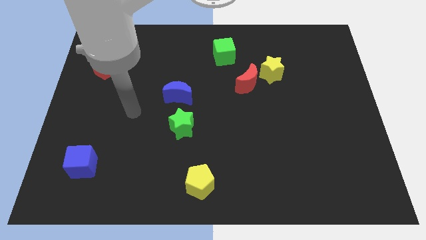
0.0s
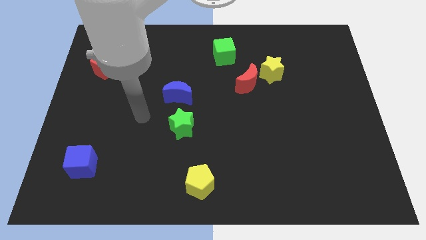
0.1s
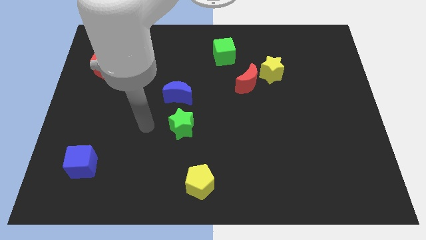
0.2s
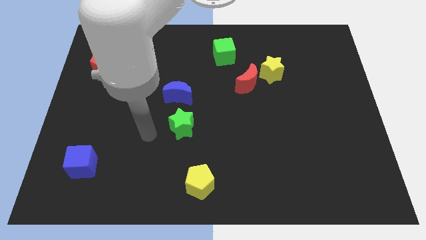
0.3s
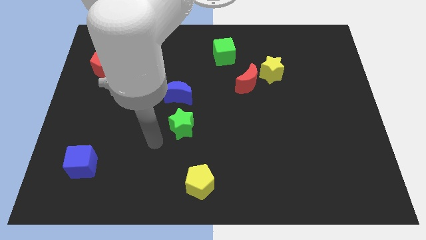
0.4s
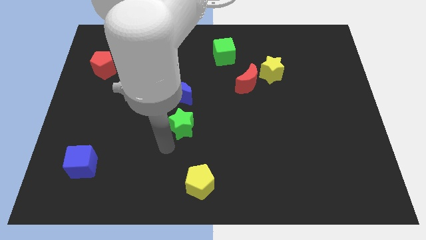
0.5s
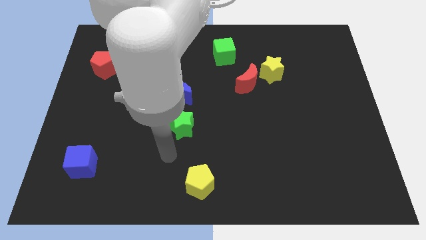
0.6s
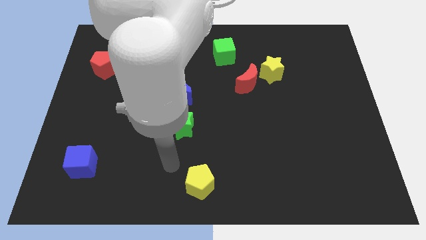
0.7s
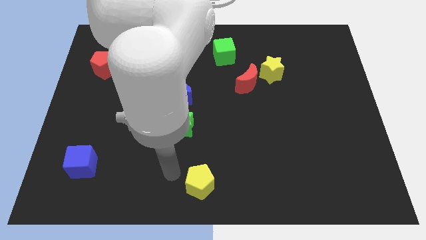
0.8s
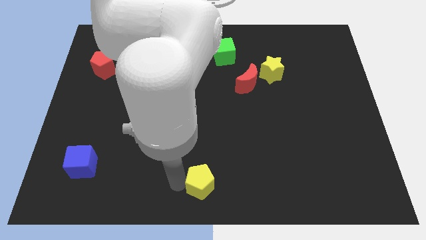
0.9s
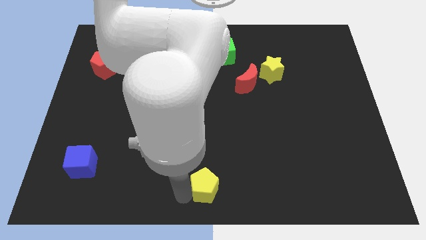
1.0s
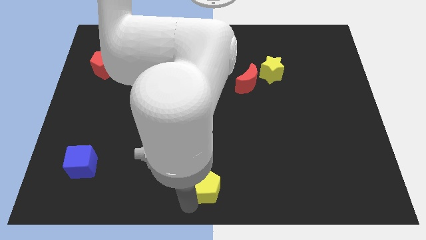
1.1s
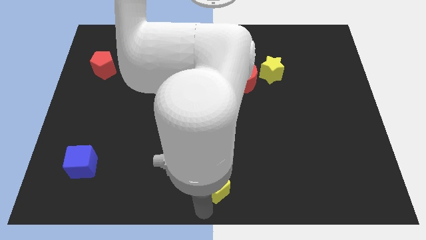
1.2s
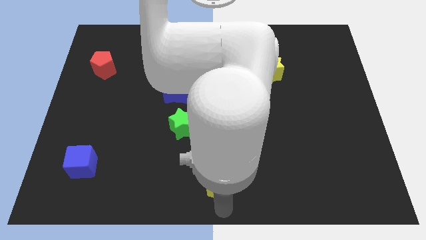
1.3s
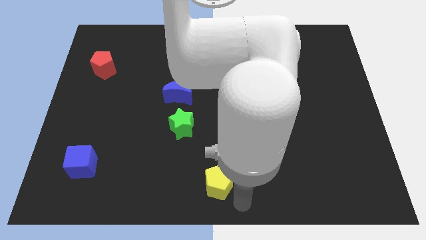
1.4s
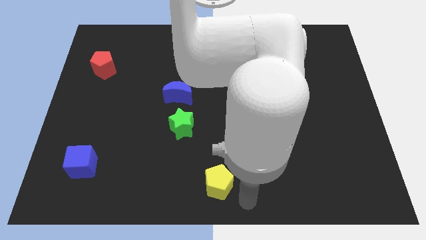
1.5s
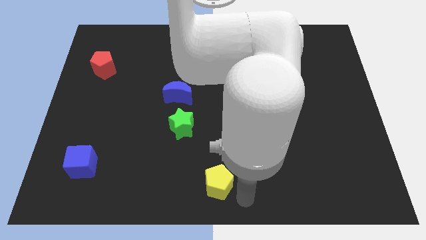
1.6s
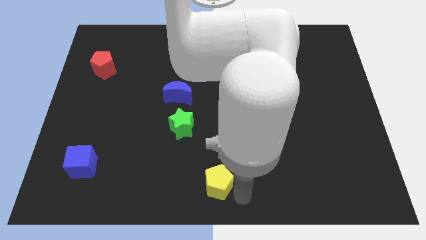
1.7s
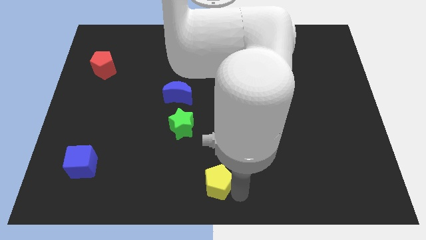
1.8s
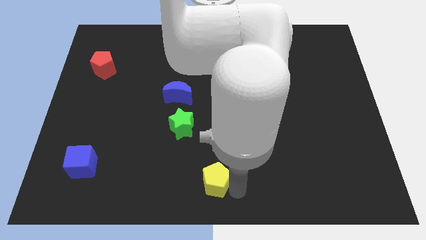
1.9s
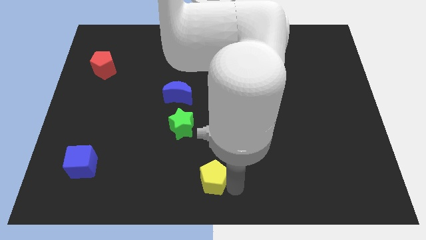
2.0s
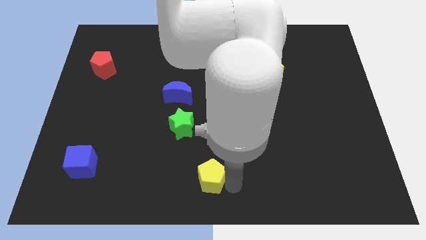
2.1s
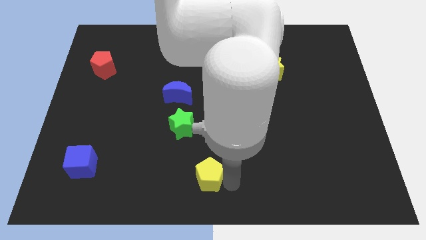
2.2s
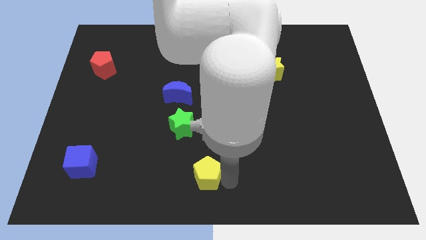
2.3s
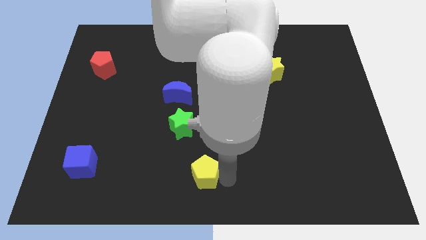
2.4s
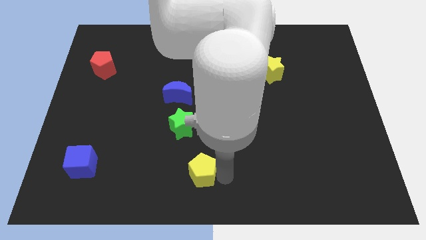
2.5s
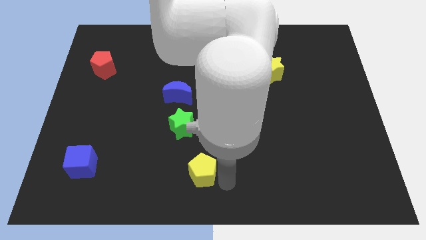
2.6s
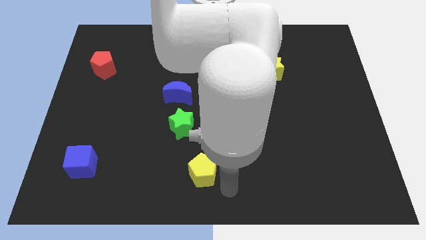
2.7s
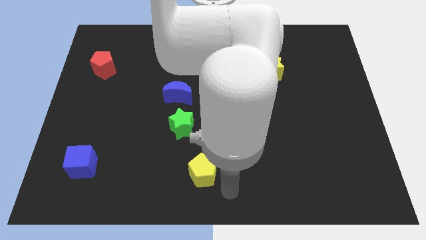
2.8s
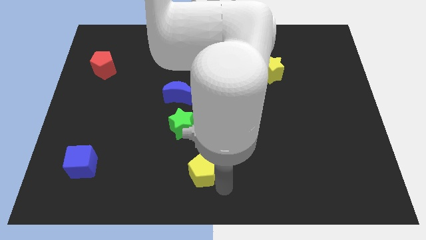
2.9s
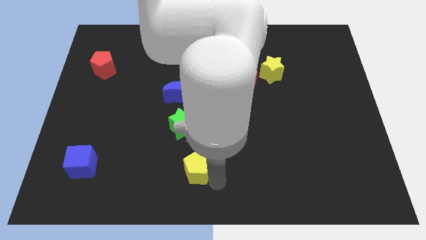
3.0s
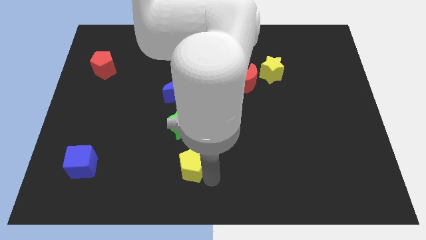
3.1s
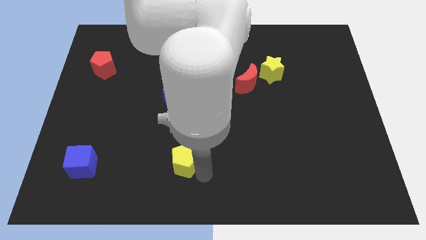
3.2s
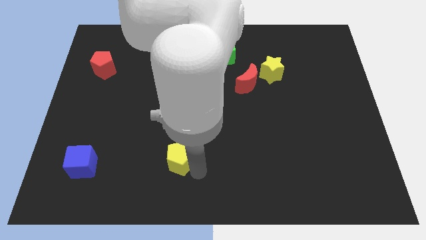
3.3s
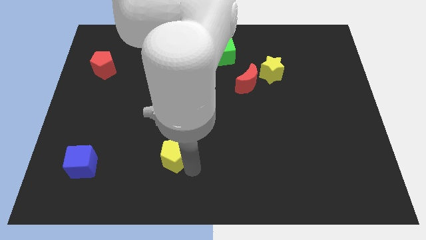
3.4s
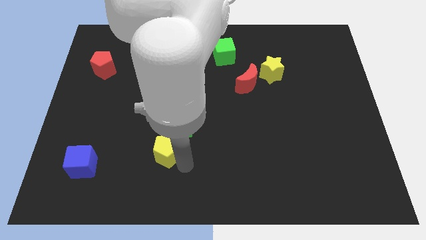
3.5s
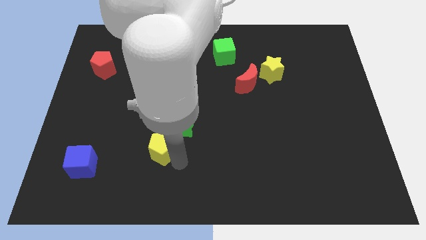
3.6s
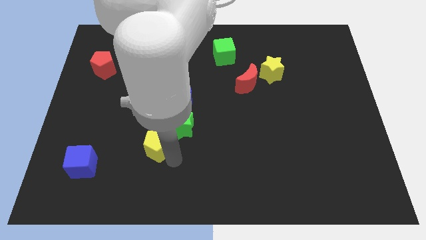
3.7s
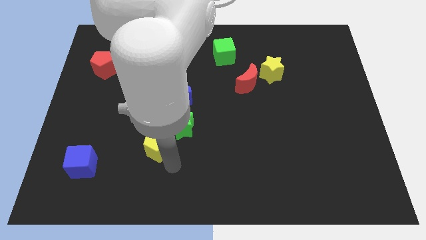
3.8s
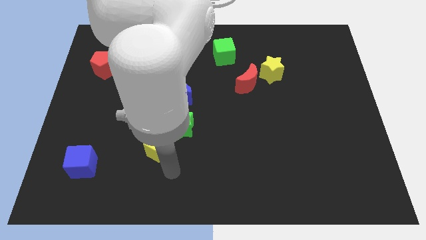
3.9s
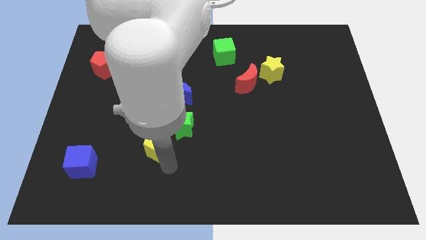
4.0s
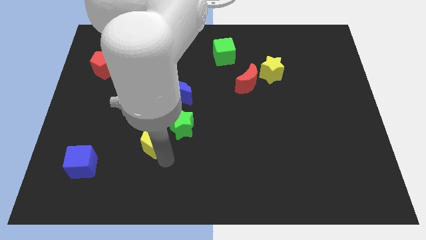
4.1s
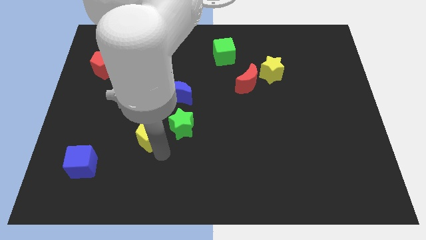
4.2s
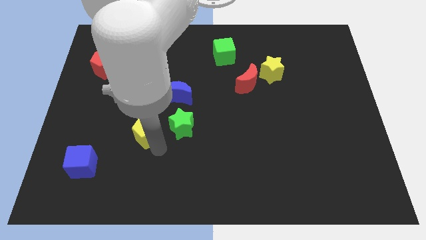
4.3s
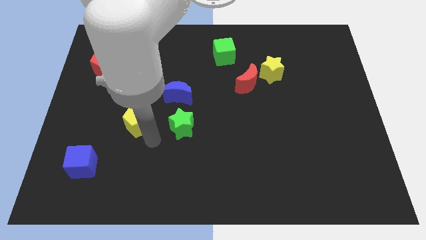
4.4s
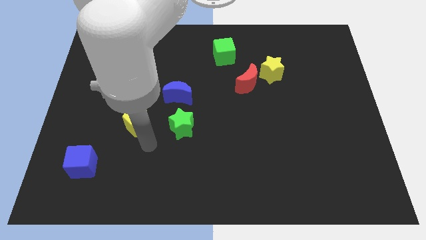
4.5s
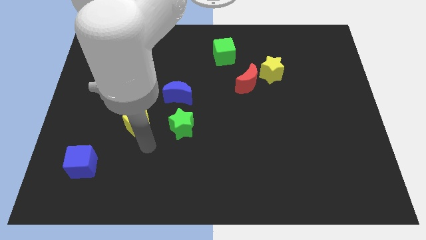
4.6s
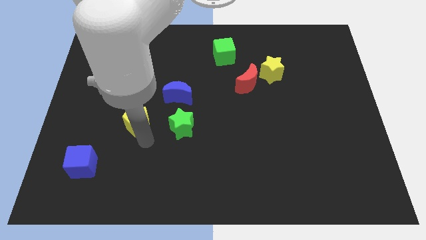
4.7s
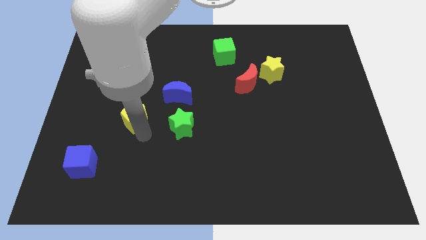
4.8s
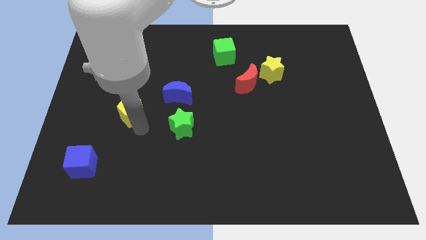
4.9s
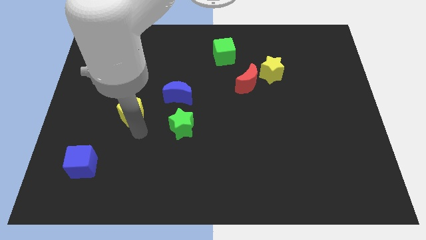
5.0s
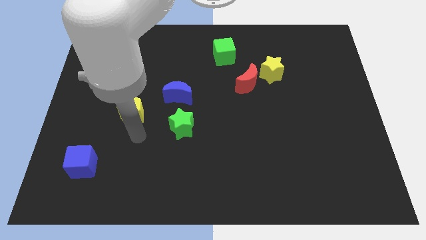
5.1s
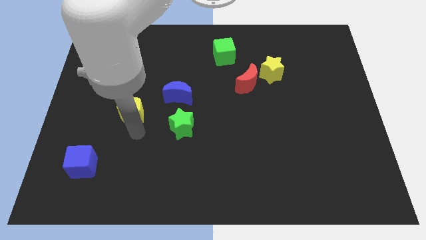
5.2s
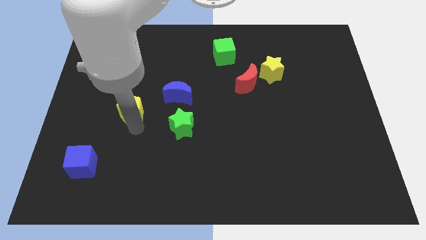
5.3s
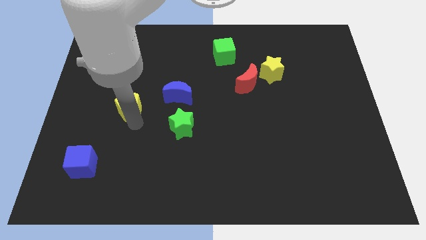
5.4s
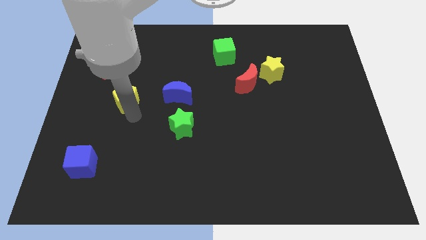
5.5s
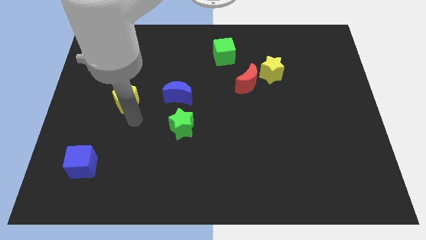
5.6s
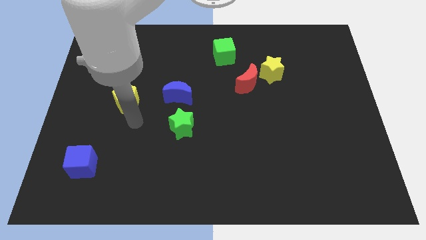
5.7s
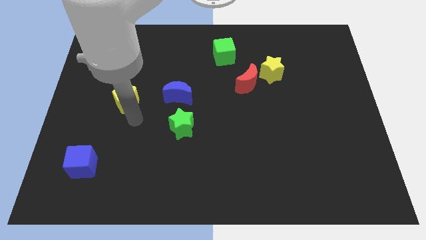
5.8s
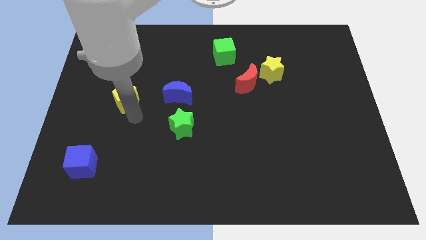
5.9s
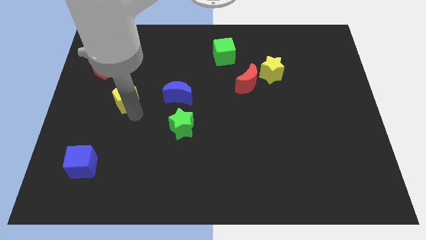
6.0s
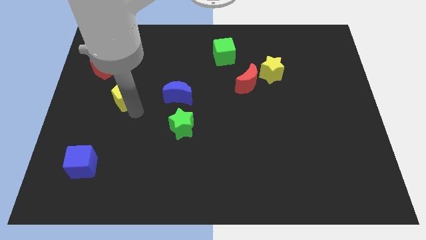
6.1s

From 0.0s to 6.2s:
slide the yellow pentagon to the bottom right of the red pentagon
